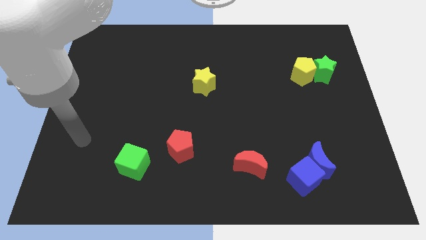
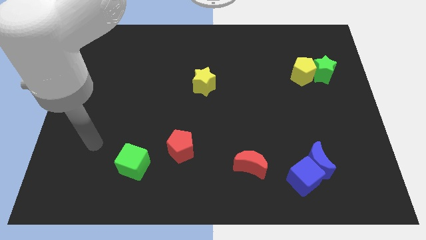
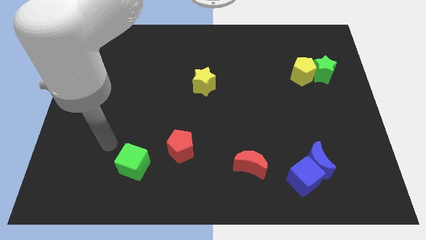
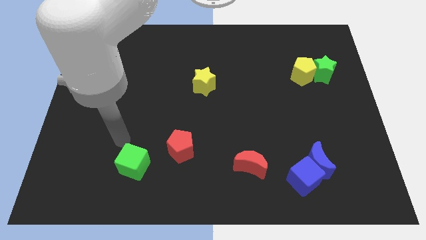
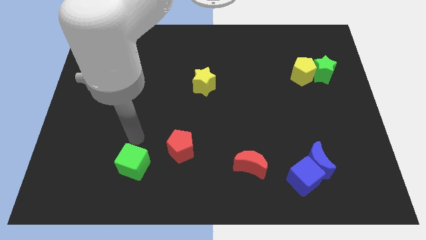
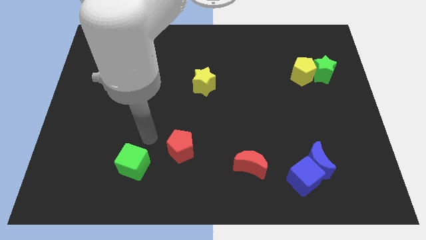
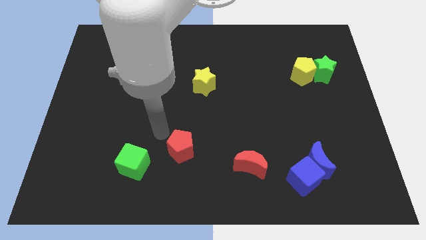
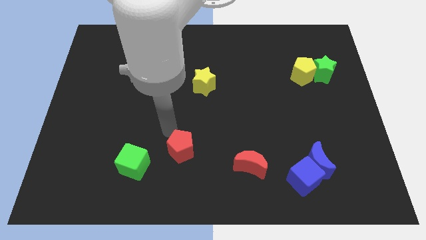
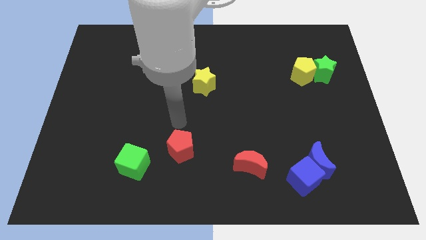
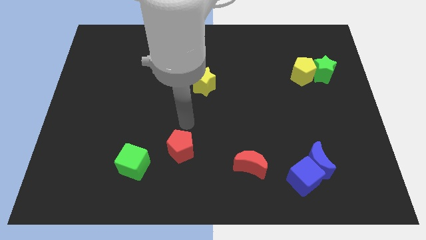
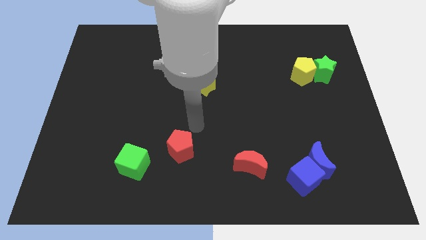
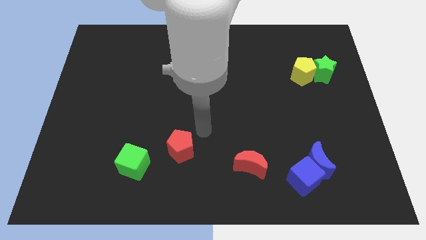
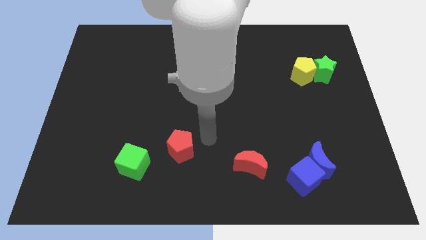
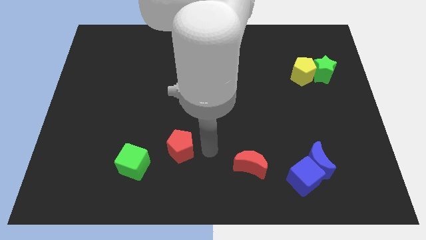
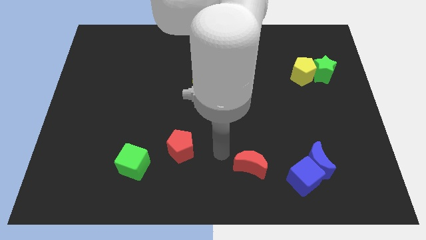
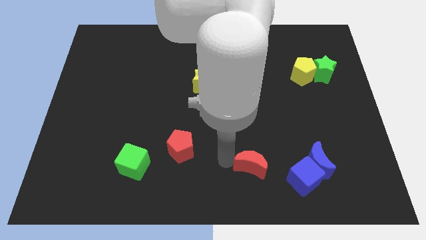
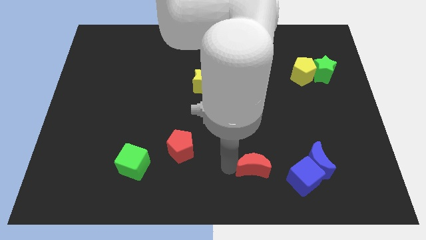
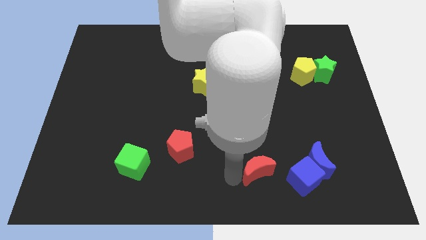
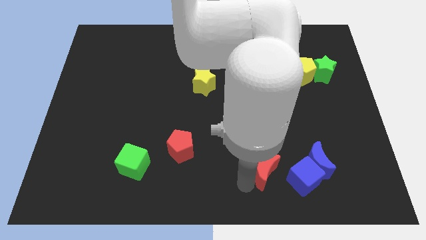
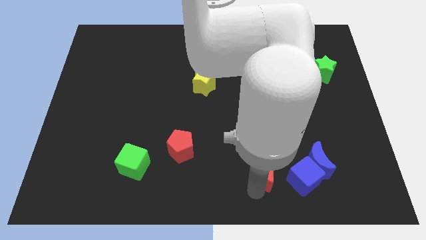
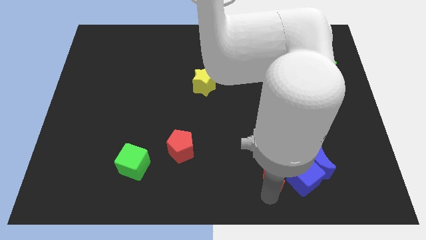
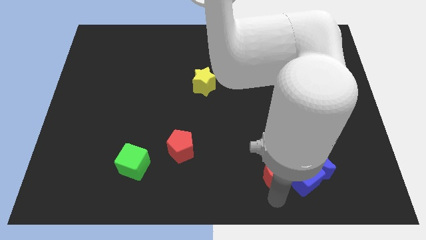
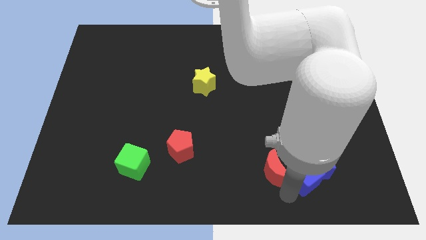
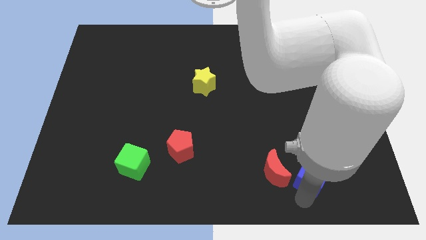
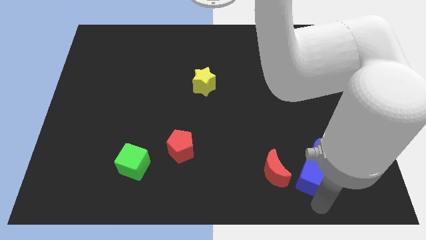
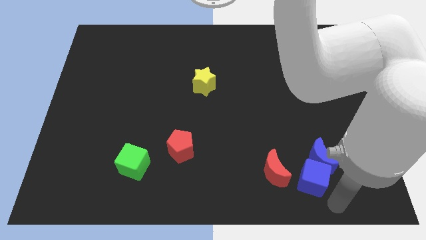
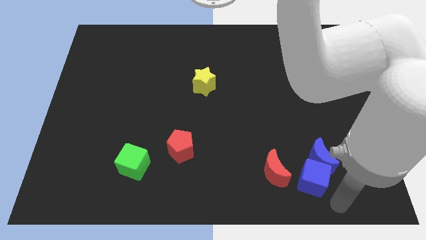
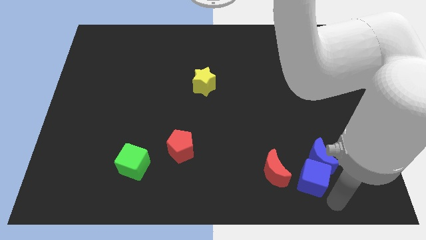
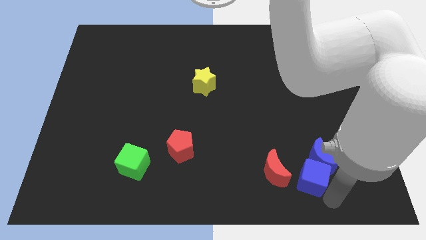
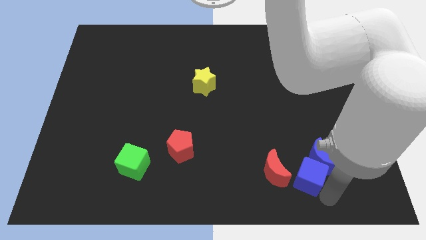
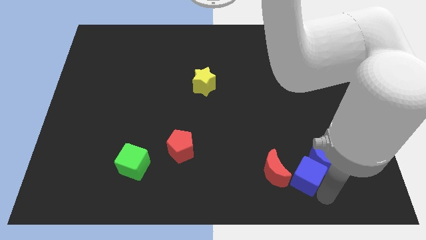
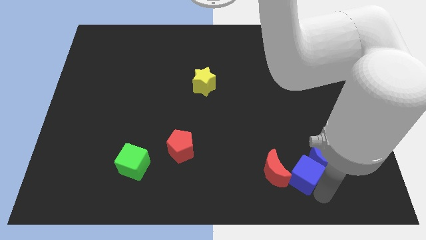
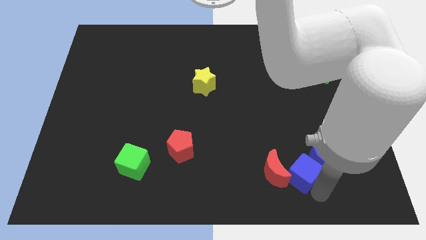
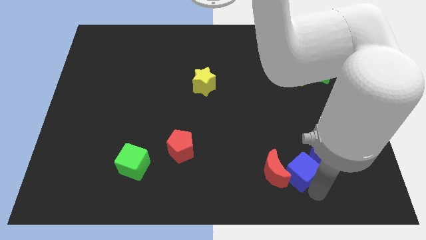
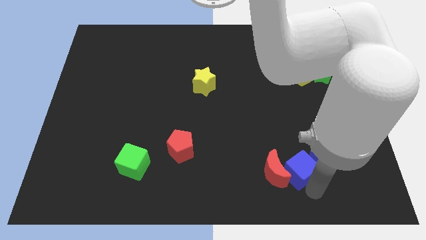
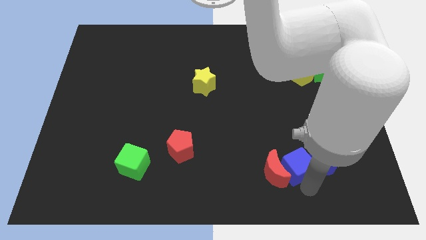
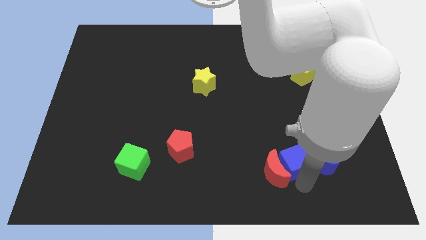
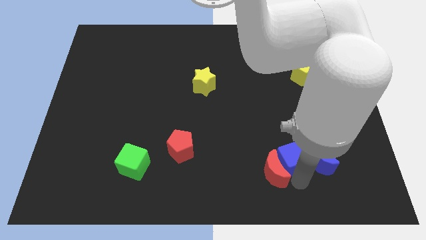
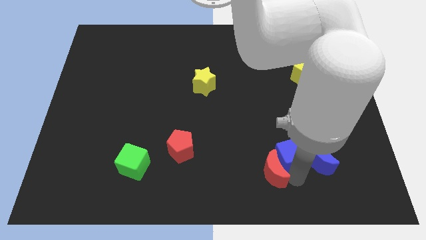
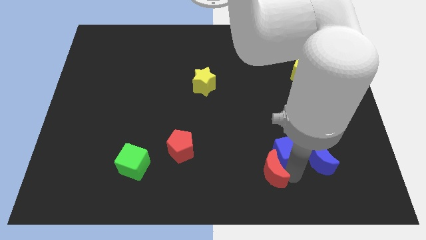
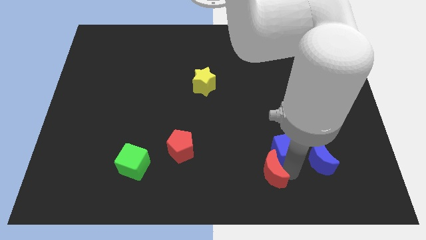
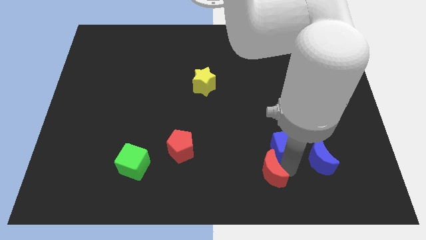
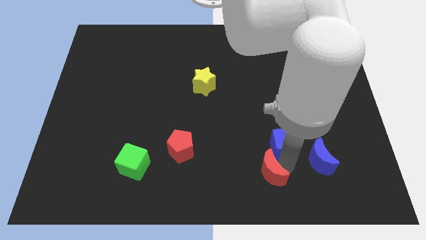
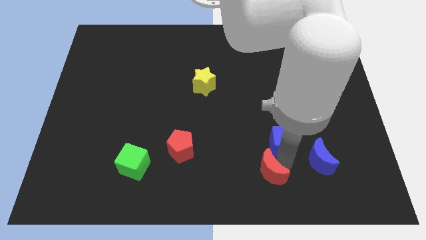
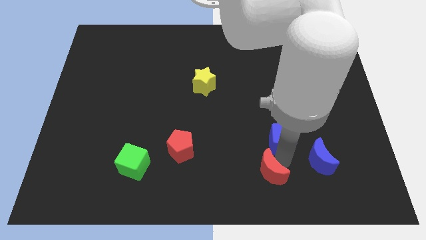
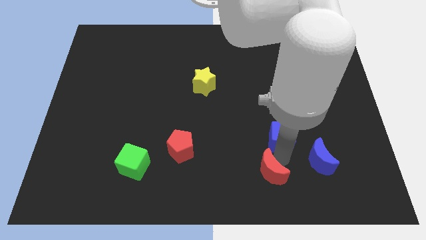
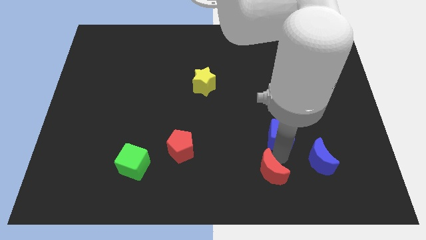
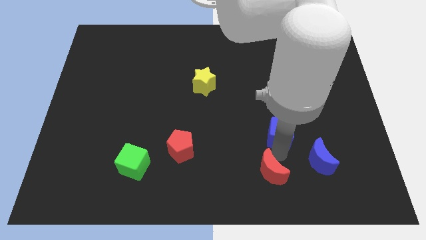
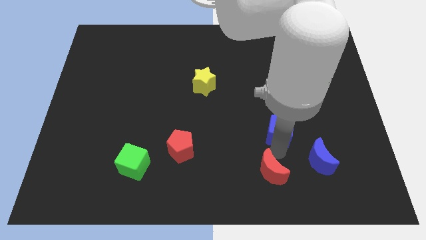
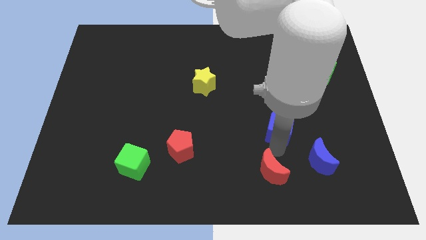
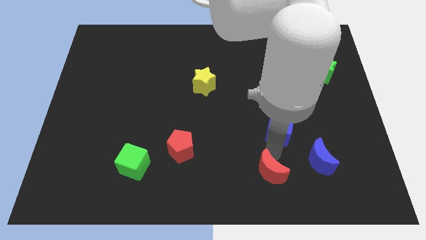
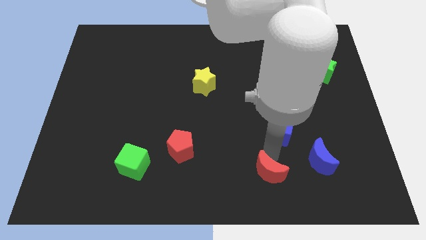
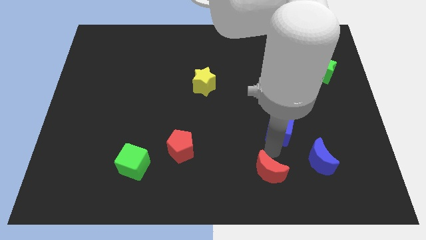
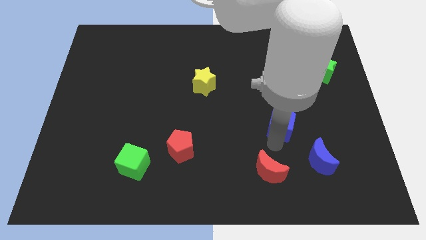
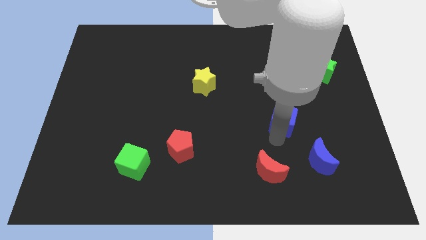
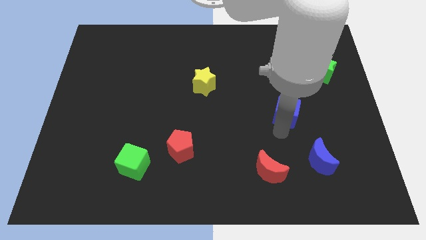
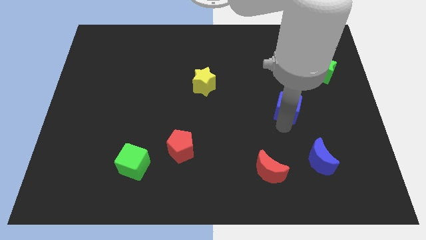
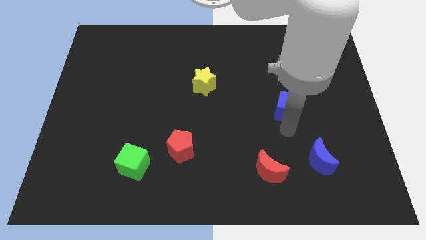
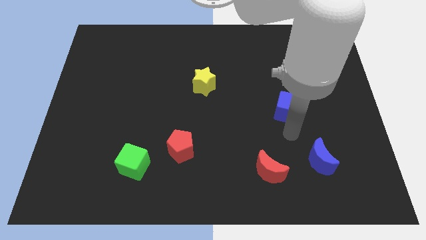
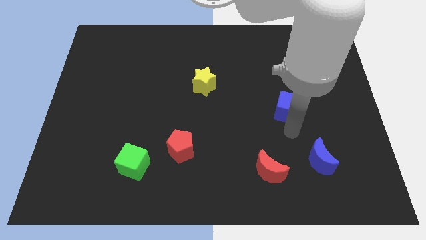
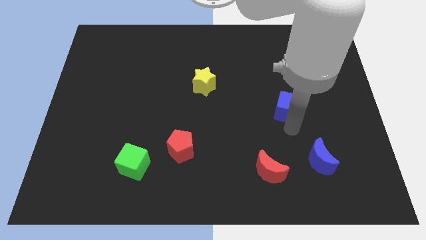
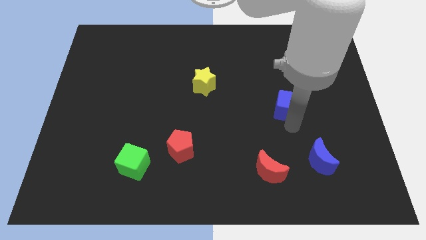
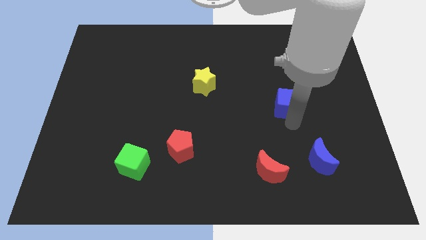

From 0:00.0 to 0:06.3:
slide the blue cube diagonally down and to the left of the yellow pentagon
